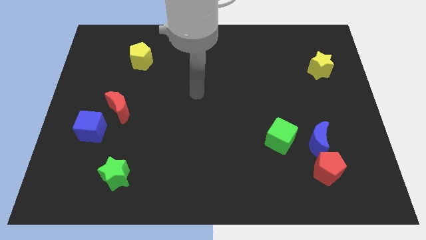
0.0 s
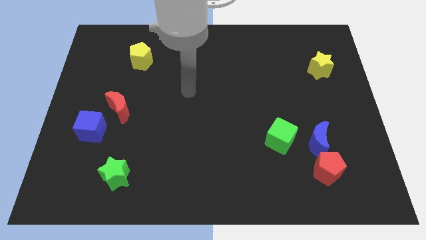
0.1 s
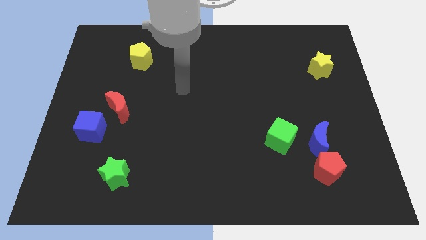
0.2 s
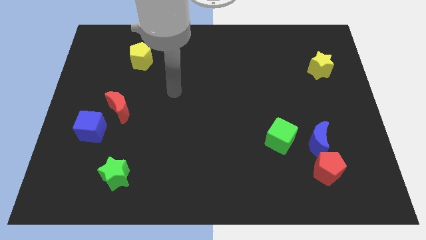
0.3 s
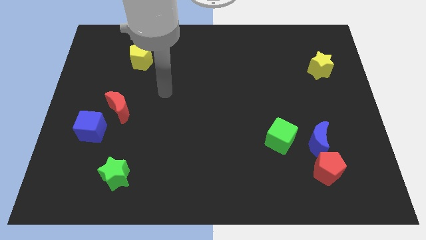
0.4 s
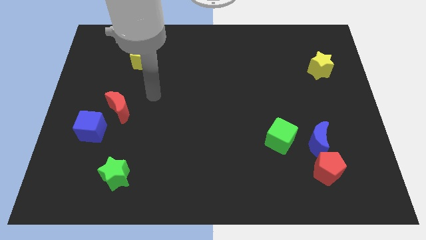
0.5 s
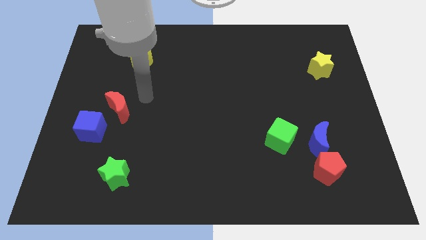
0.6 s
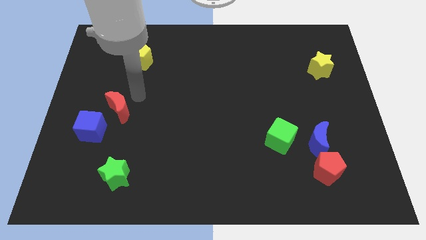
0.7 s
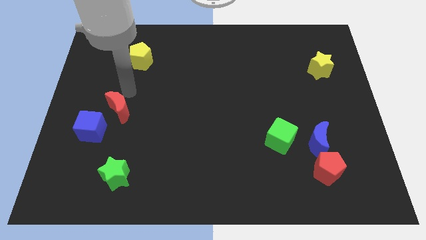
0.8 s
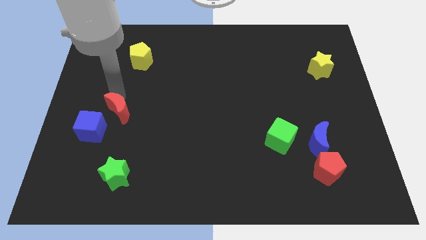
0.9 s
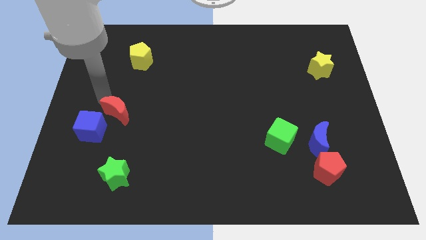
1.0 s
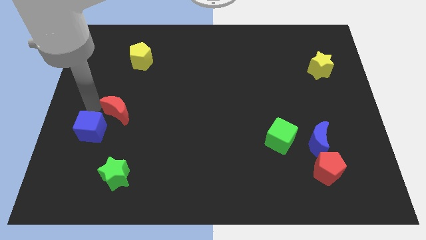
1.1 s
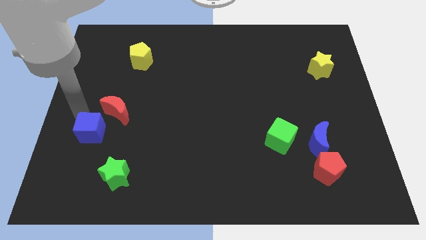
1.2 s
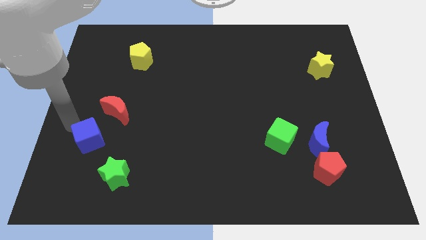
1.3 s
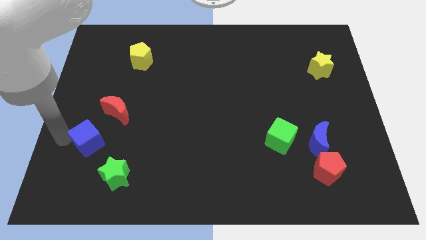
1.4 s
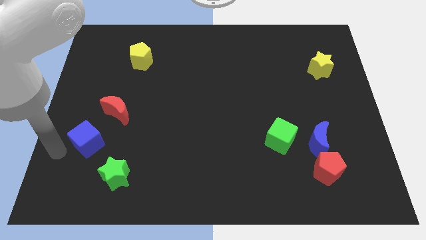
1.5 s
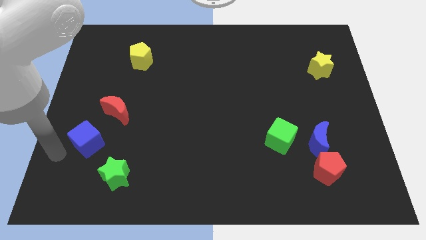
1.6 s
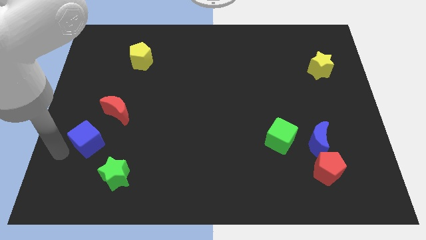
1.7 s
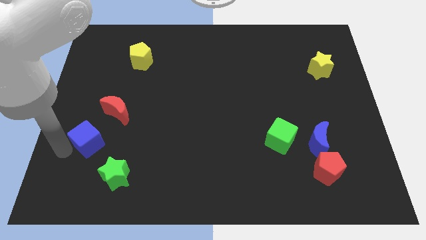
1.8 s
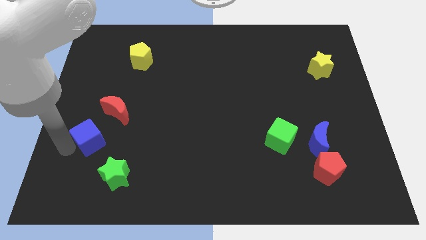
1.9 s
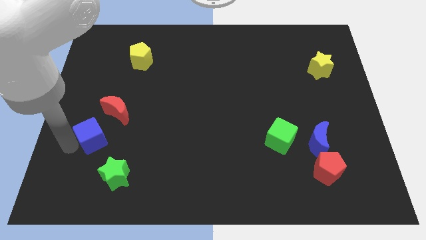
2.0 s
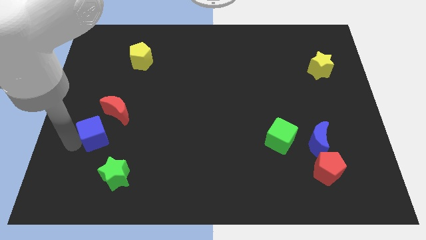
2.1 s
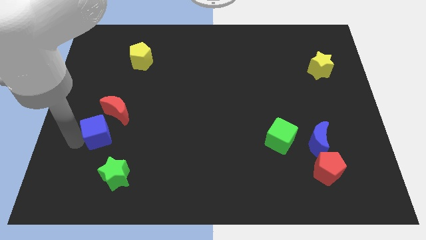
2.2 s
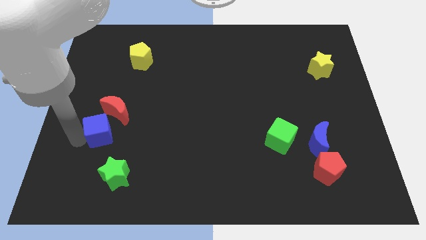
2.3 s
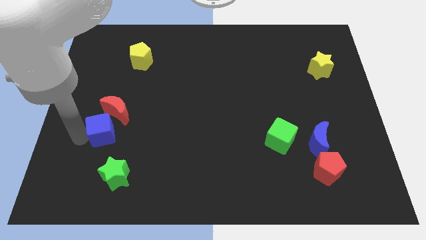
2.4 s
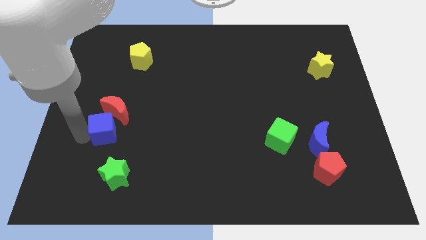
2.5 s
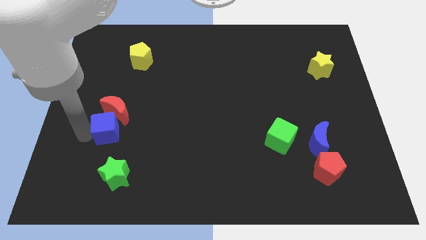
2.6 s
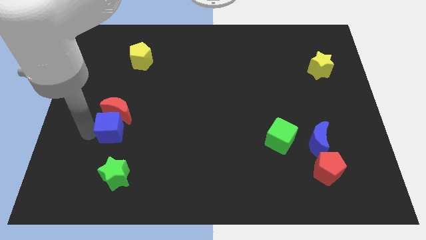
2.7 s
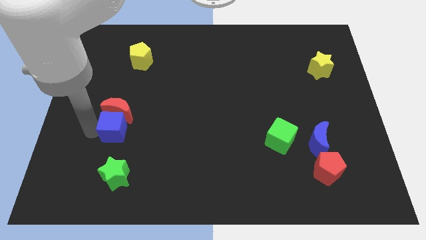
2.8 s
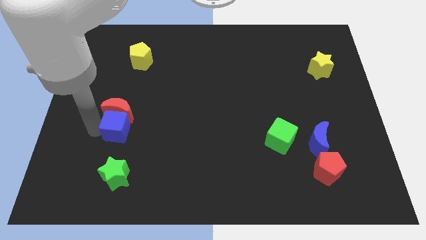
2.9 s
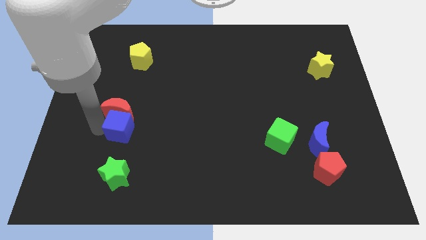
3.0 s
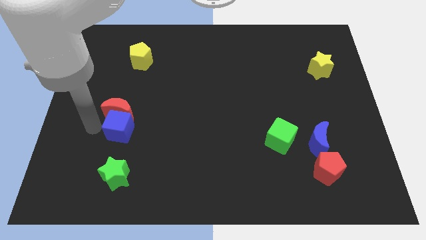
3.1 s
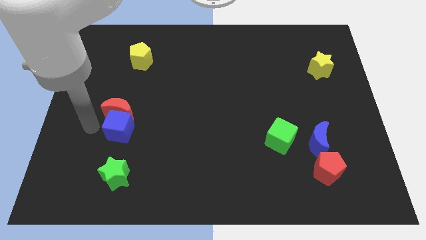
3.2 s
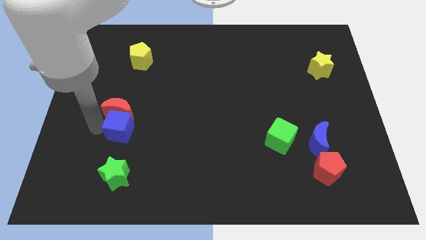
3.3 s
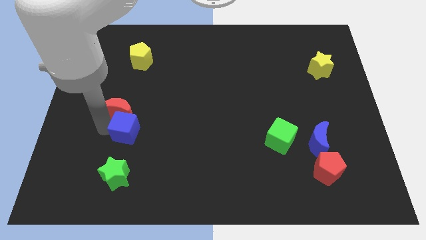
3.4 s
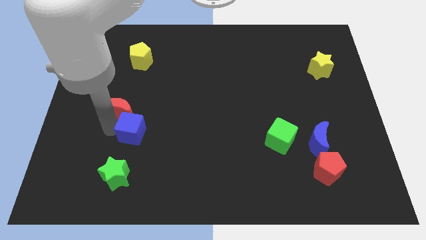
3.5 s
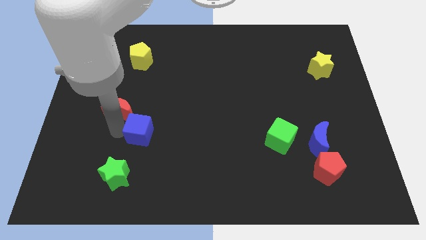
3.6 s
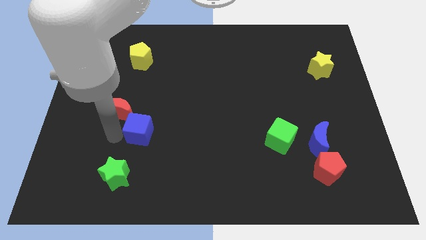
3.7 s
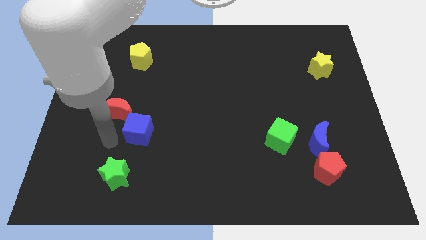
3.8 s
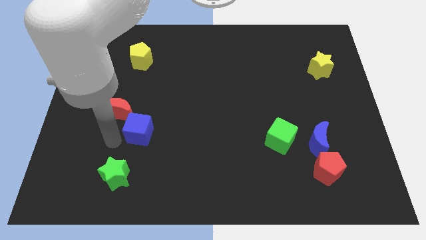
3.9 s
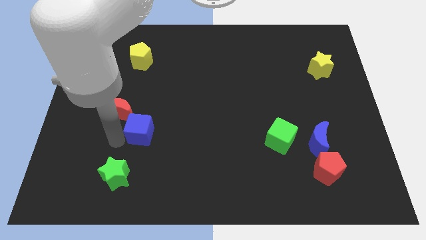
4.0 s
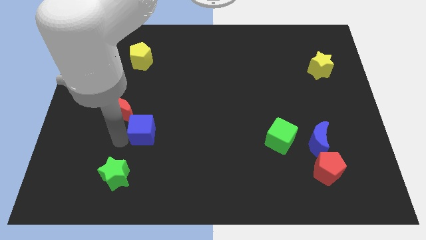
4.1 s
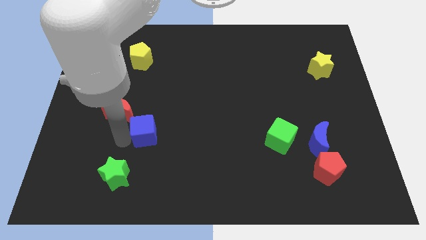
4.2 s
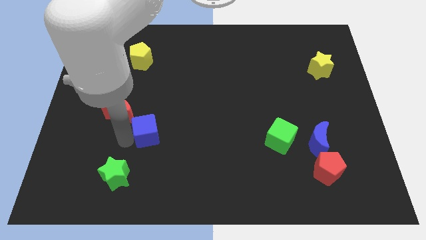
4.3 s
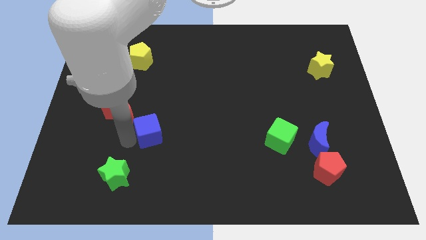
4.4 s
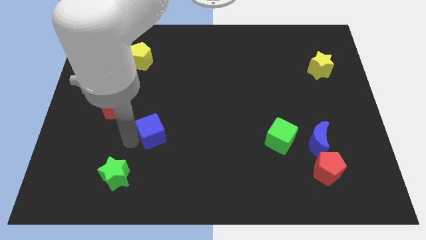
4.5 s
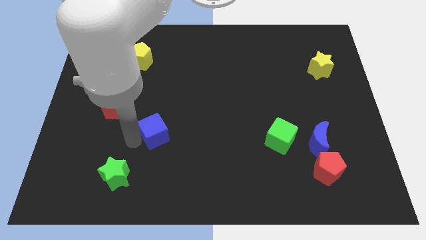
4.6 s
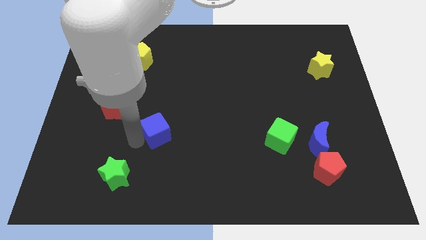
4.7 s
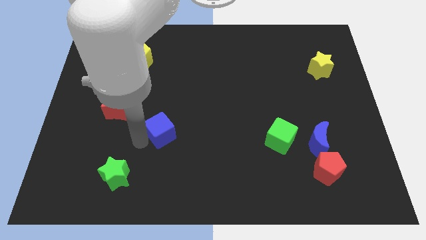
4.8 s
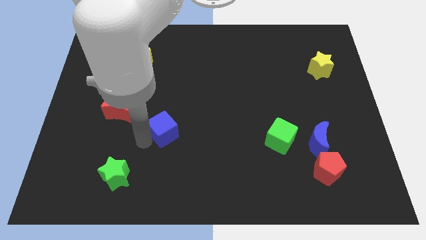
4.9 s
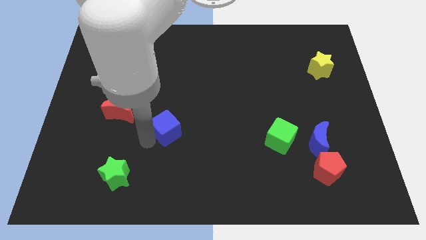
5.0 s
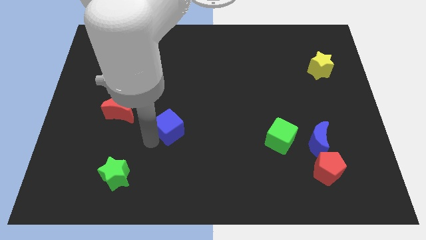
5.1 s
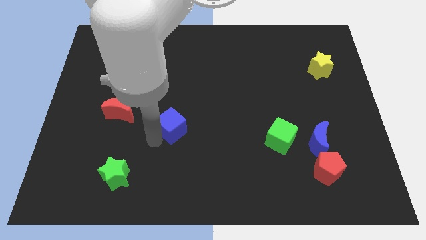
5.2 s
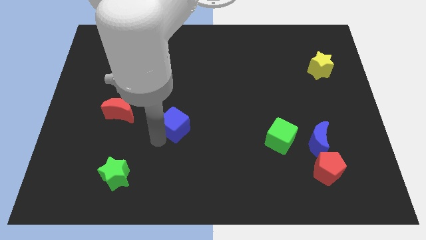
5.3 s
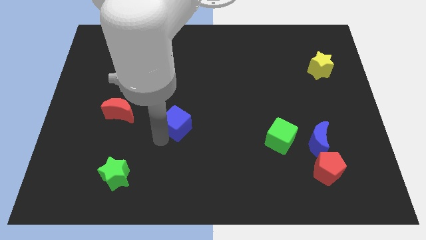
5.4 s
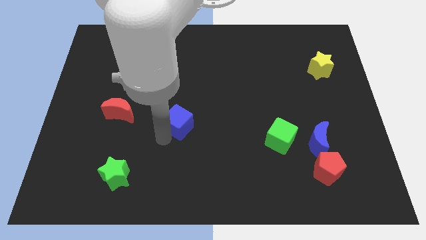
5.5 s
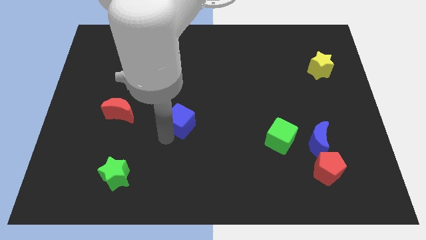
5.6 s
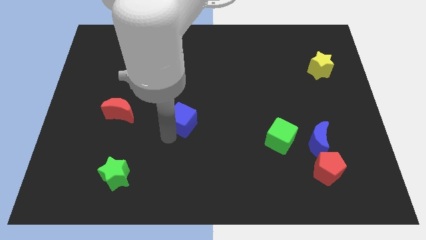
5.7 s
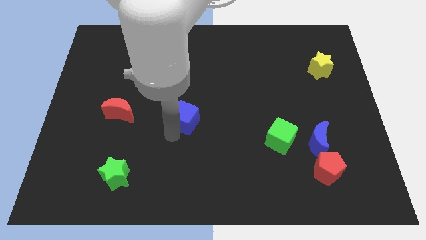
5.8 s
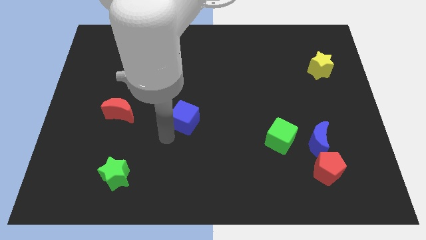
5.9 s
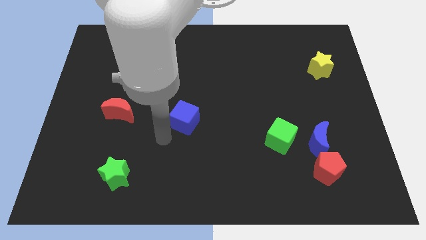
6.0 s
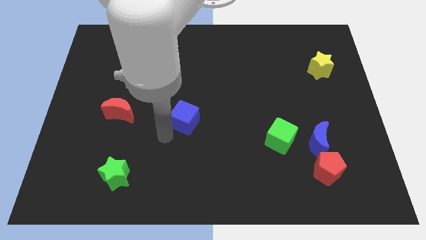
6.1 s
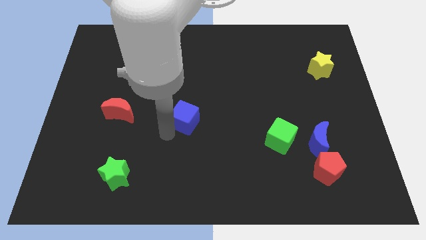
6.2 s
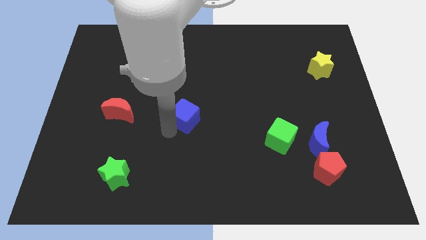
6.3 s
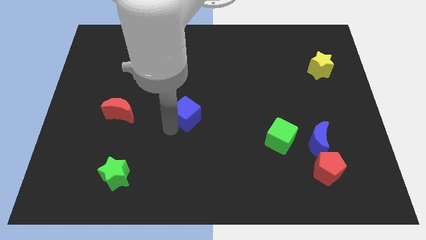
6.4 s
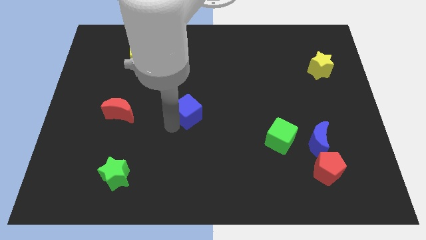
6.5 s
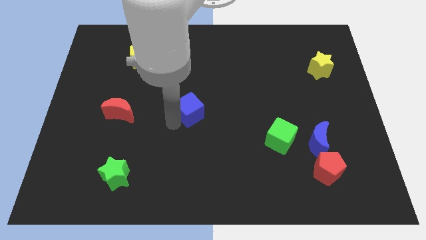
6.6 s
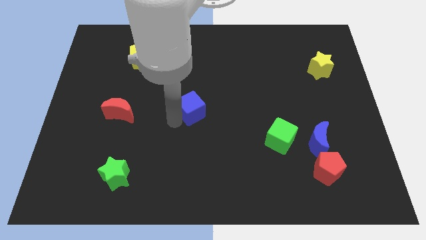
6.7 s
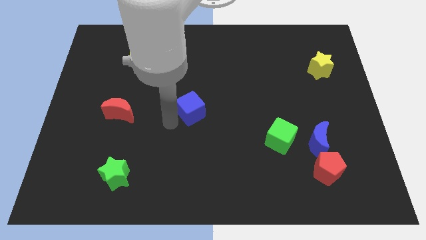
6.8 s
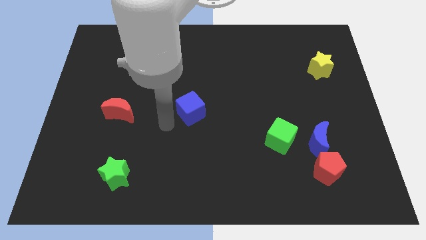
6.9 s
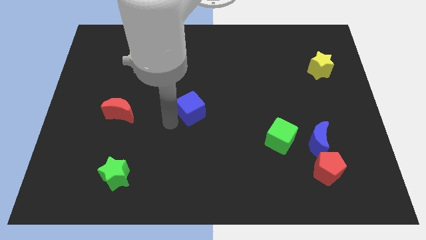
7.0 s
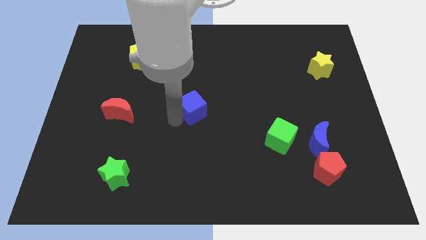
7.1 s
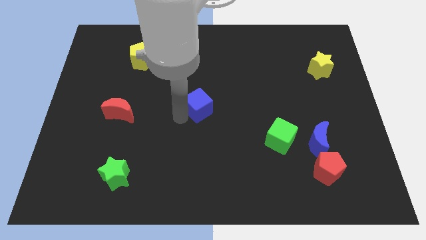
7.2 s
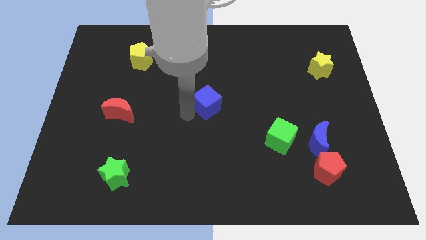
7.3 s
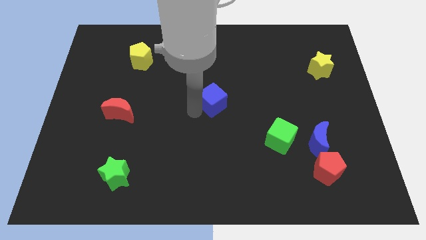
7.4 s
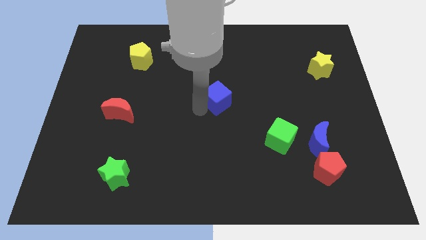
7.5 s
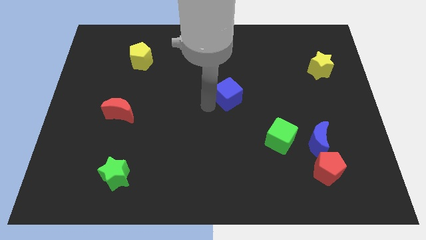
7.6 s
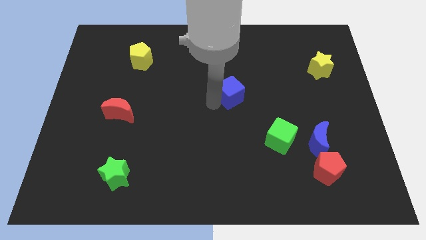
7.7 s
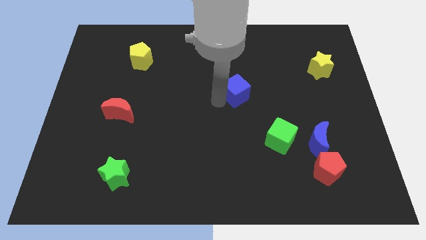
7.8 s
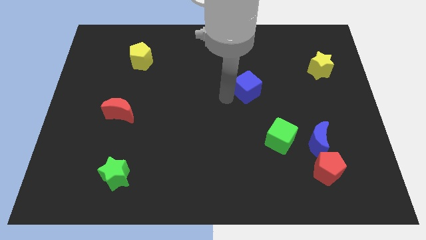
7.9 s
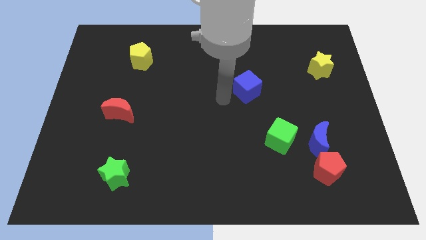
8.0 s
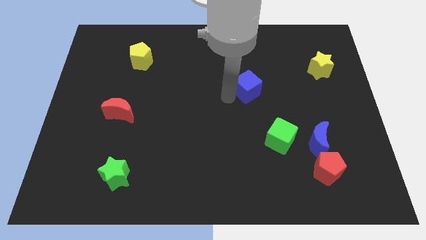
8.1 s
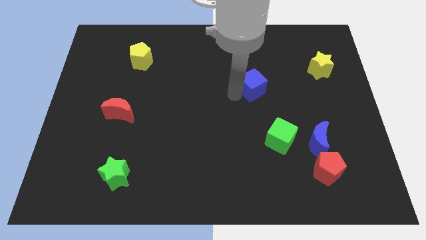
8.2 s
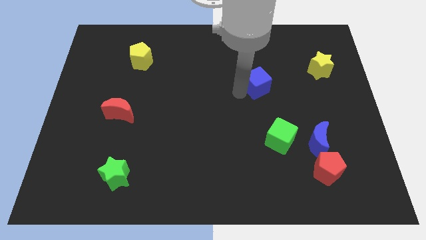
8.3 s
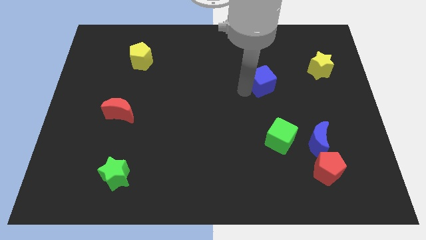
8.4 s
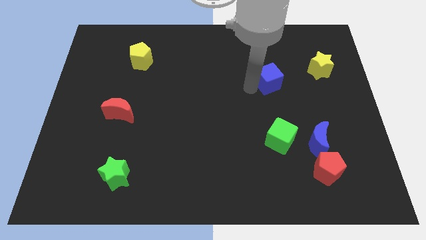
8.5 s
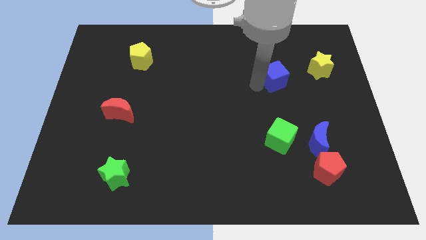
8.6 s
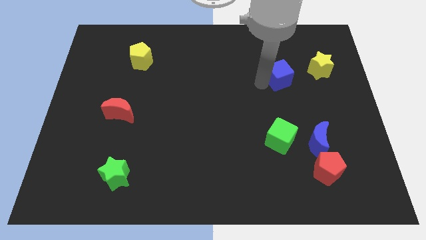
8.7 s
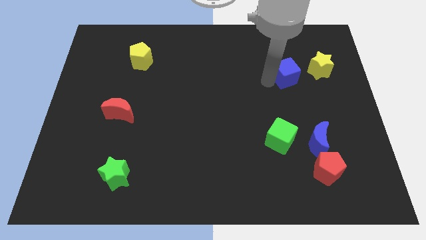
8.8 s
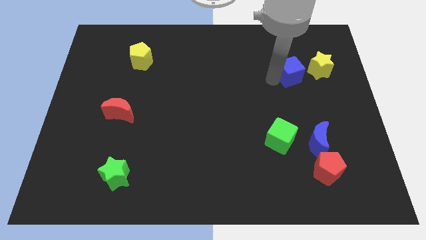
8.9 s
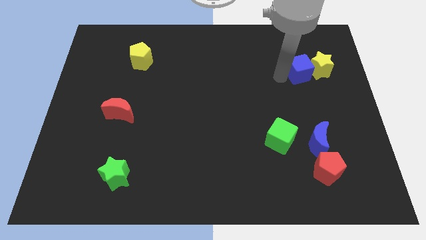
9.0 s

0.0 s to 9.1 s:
slide the blue cube to the yellow star
